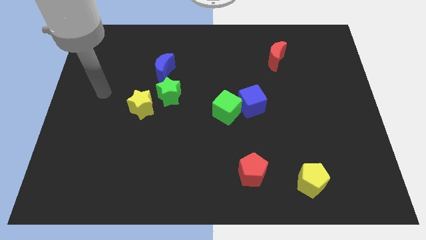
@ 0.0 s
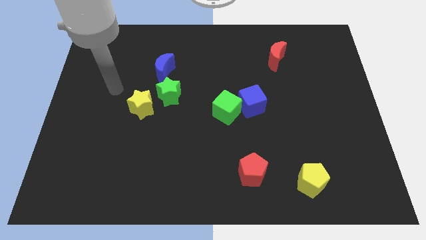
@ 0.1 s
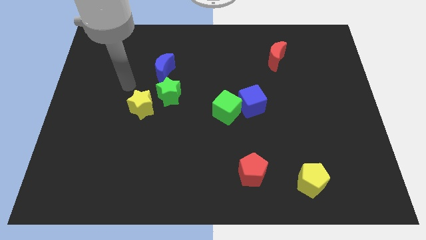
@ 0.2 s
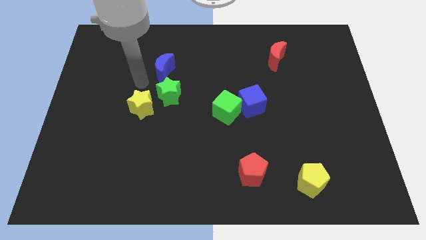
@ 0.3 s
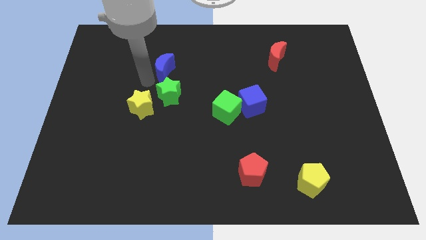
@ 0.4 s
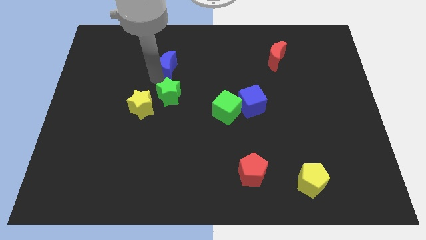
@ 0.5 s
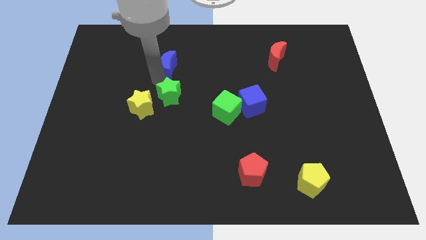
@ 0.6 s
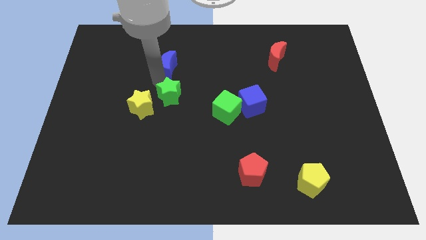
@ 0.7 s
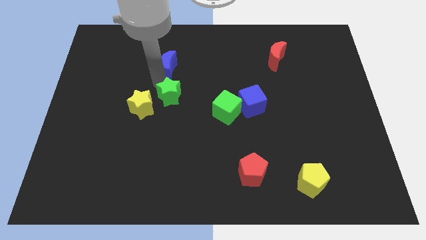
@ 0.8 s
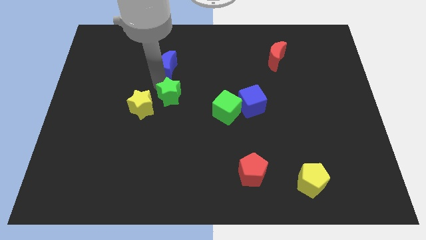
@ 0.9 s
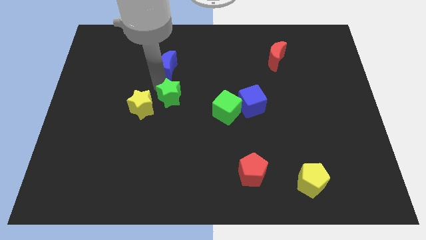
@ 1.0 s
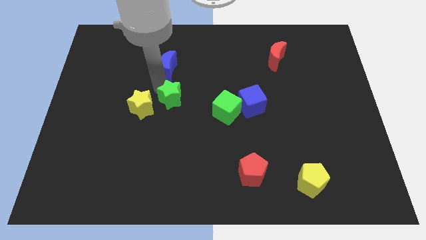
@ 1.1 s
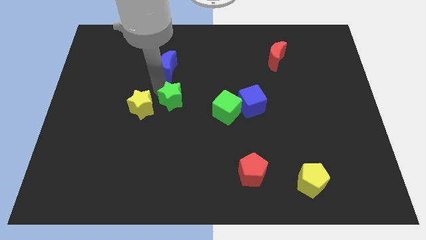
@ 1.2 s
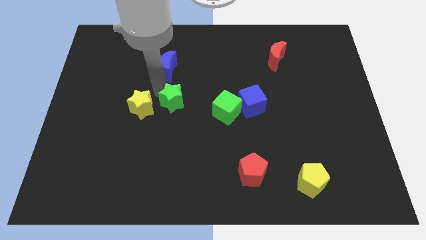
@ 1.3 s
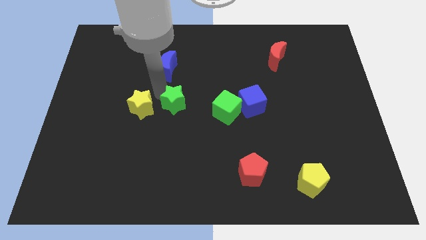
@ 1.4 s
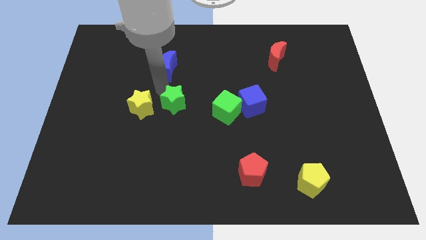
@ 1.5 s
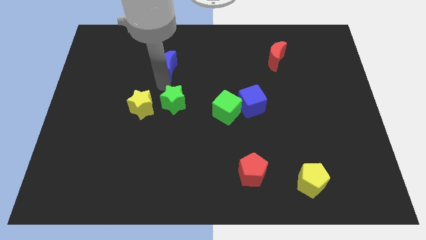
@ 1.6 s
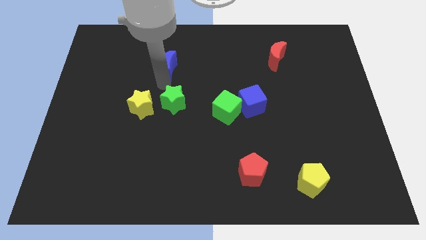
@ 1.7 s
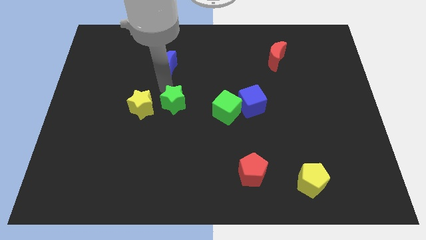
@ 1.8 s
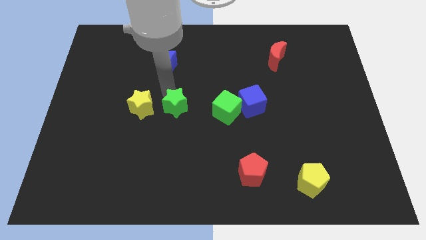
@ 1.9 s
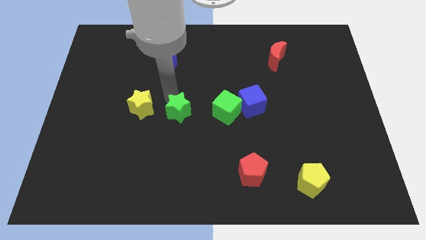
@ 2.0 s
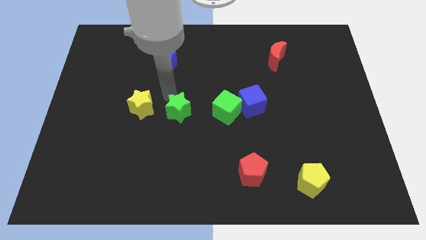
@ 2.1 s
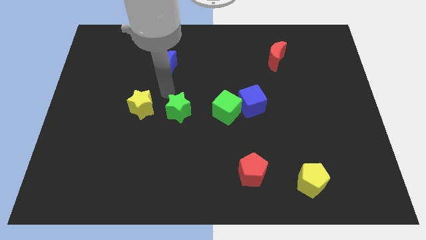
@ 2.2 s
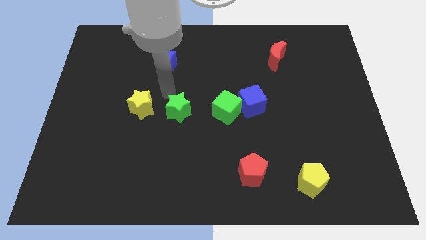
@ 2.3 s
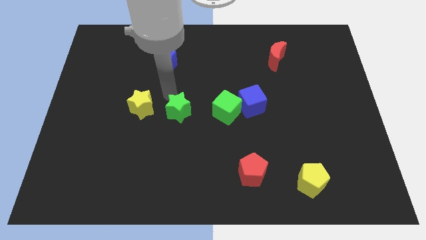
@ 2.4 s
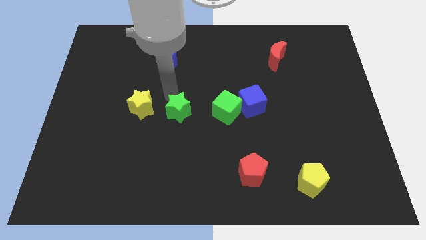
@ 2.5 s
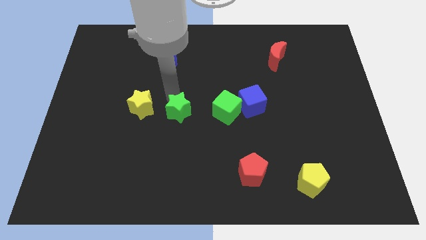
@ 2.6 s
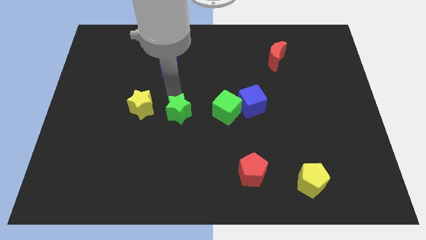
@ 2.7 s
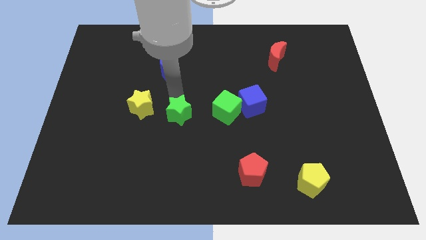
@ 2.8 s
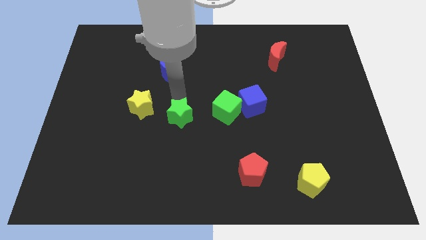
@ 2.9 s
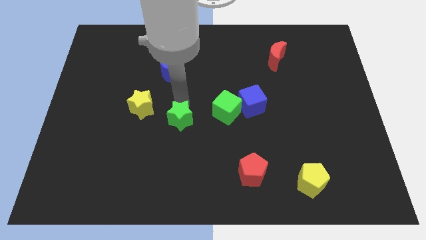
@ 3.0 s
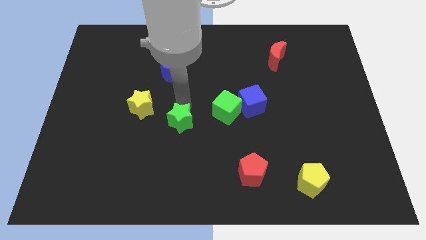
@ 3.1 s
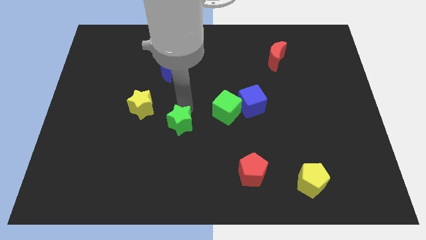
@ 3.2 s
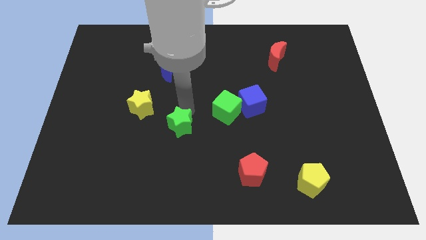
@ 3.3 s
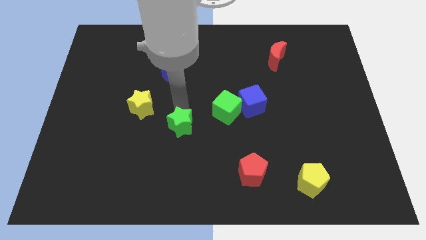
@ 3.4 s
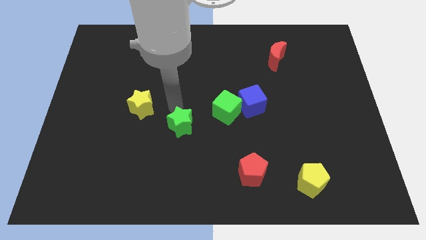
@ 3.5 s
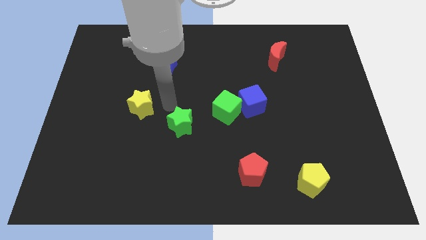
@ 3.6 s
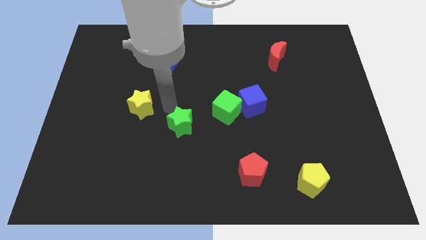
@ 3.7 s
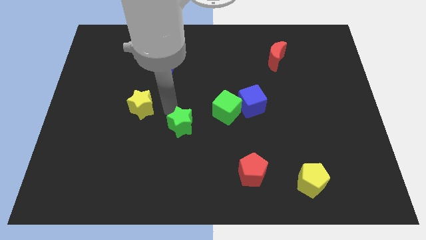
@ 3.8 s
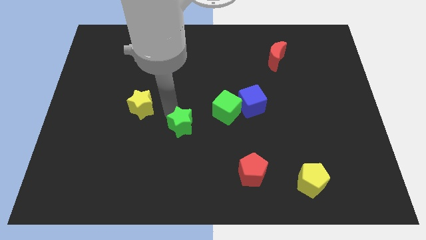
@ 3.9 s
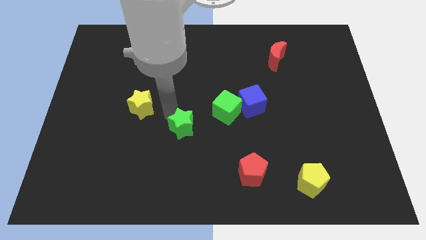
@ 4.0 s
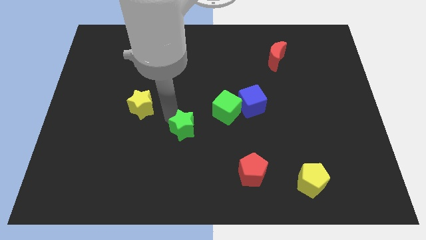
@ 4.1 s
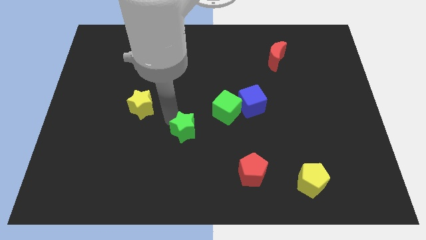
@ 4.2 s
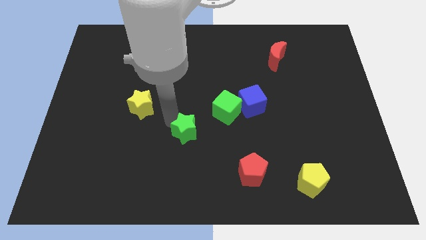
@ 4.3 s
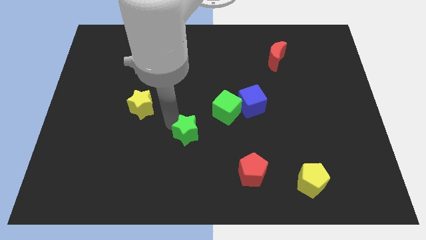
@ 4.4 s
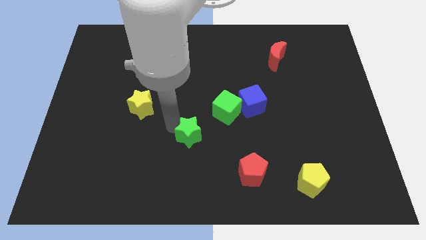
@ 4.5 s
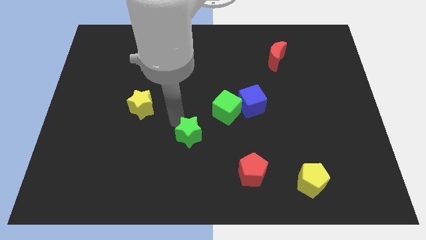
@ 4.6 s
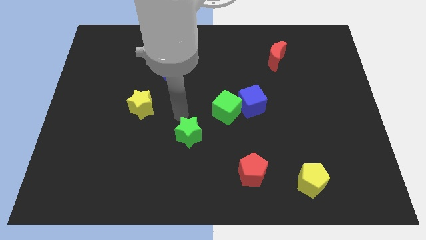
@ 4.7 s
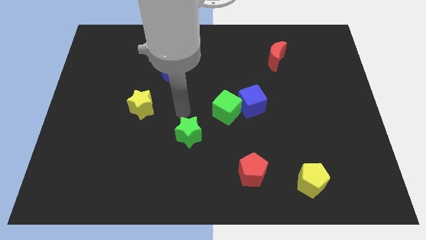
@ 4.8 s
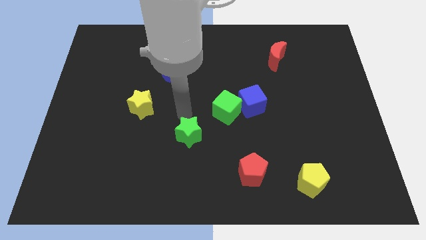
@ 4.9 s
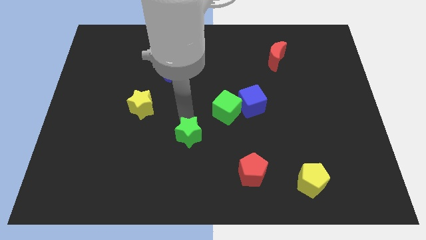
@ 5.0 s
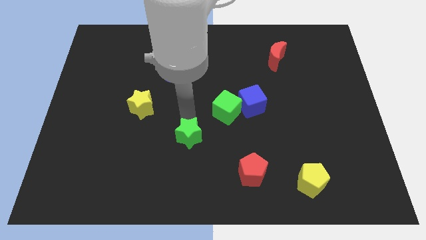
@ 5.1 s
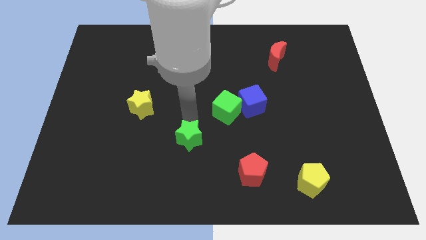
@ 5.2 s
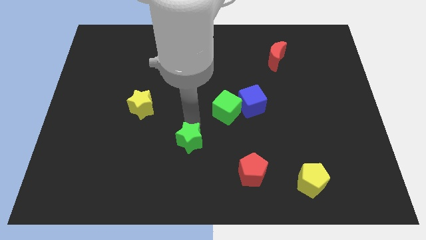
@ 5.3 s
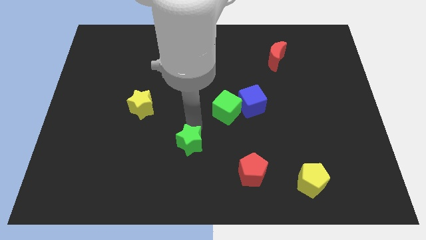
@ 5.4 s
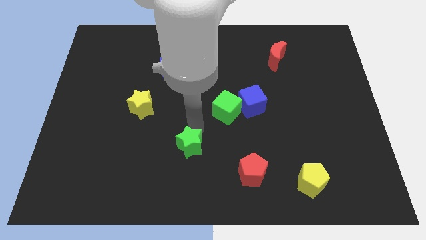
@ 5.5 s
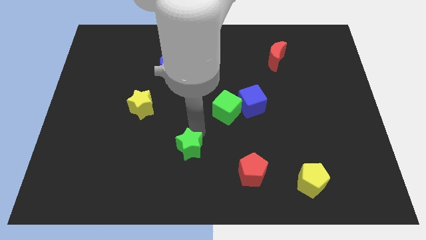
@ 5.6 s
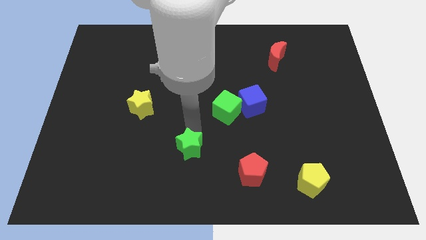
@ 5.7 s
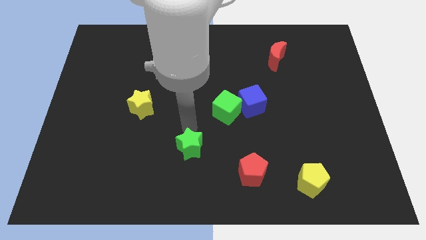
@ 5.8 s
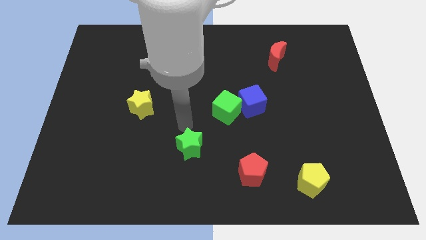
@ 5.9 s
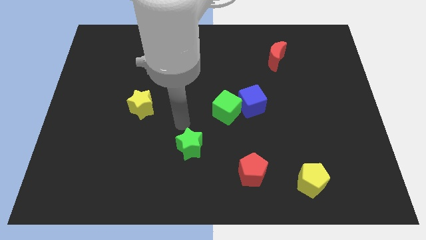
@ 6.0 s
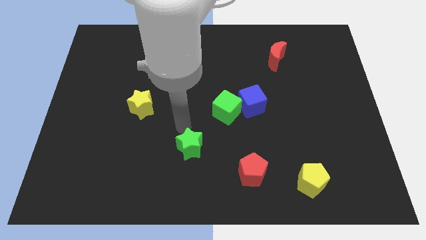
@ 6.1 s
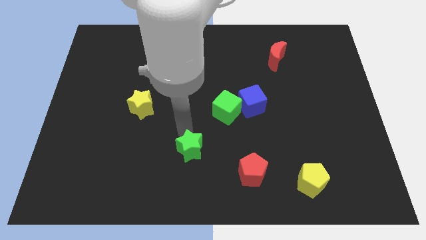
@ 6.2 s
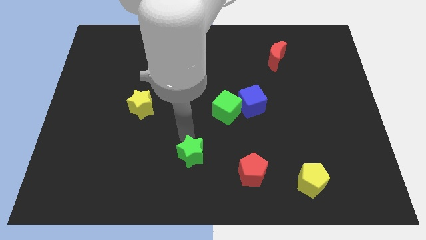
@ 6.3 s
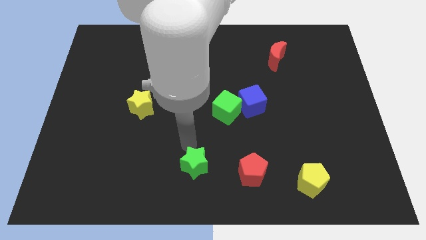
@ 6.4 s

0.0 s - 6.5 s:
slide the green star to the bottom

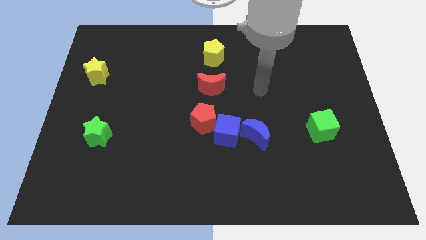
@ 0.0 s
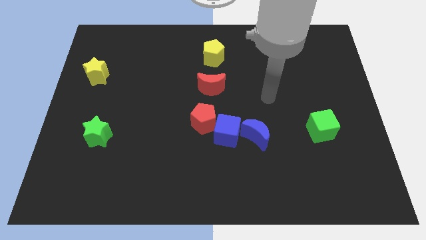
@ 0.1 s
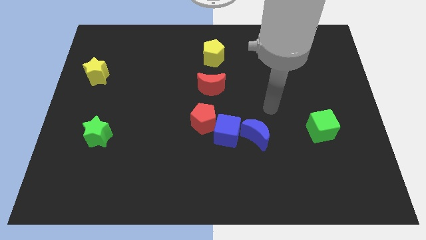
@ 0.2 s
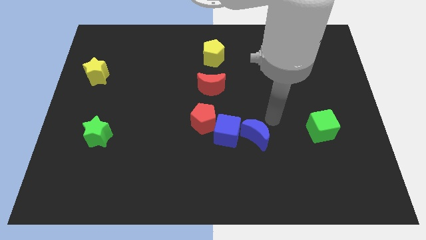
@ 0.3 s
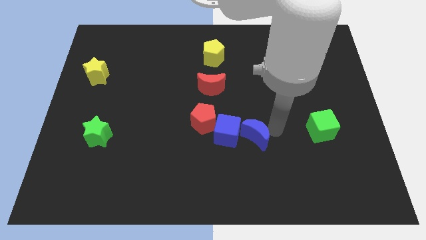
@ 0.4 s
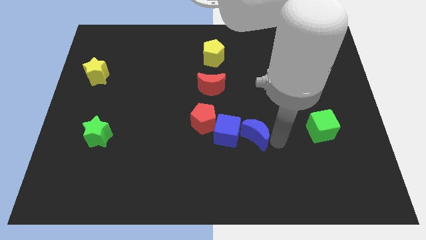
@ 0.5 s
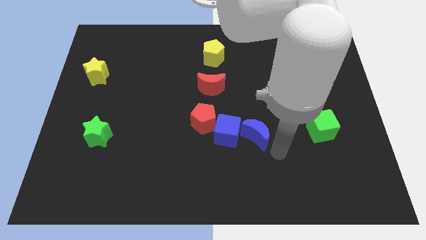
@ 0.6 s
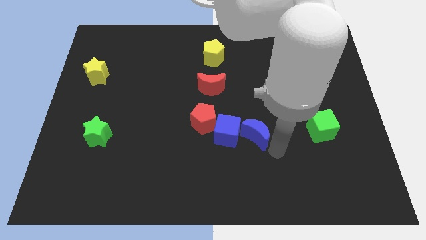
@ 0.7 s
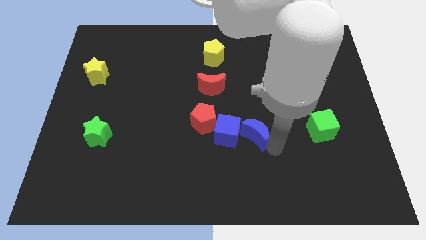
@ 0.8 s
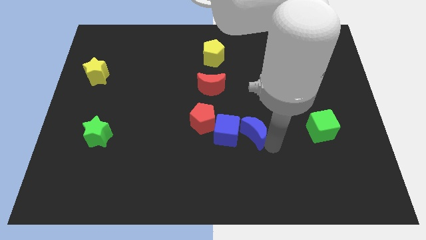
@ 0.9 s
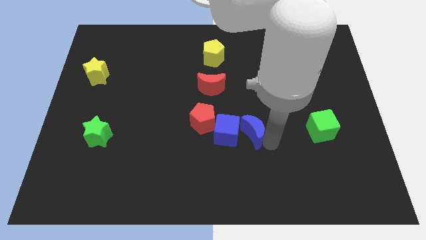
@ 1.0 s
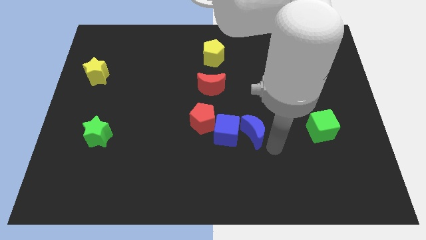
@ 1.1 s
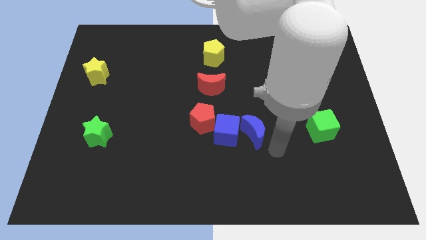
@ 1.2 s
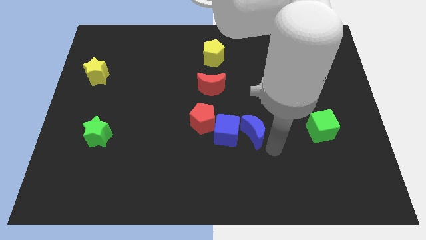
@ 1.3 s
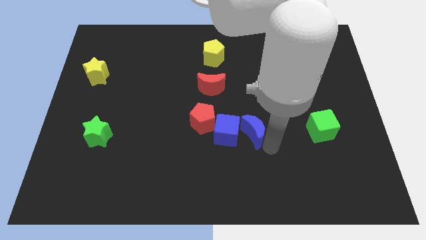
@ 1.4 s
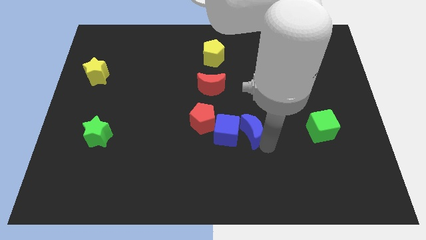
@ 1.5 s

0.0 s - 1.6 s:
put the blue moon to the middle of the board
